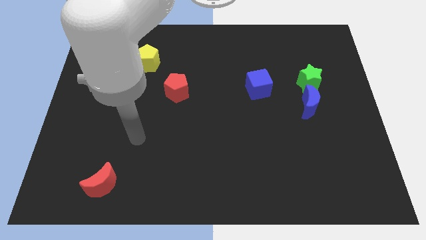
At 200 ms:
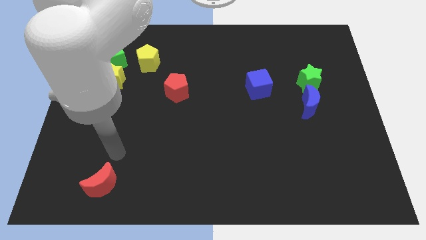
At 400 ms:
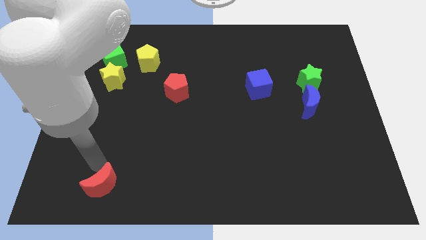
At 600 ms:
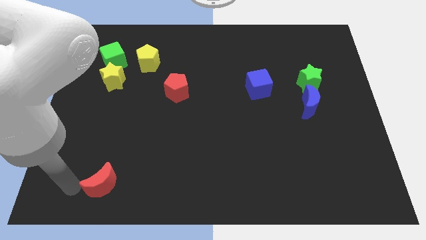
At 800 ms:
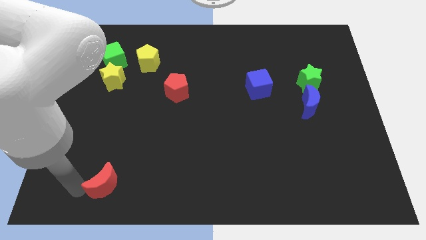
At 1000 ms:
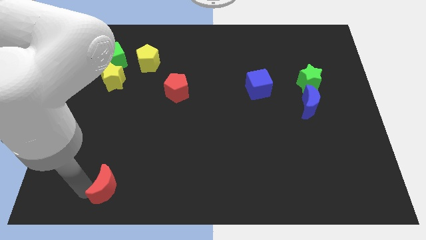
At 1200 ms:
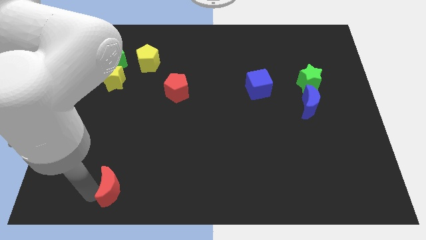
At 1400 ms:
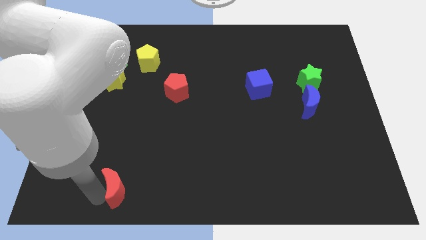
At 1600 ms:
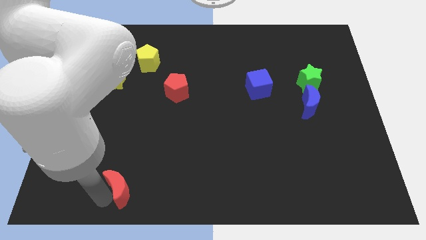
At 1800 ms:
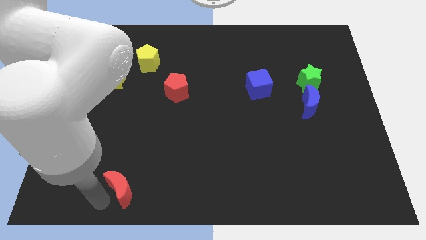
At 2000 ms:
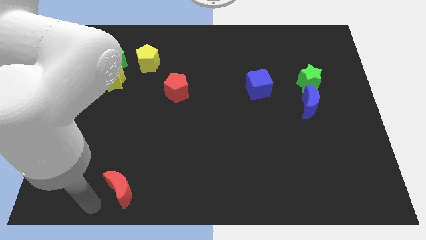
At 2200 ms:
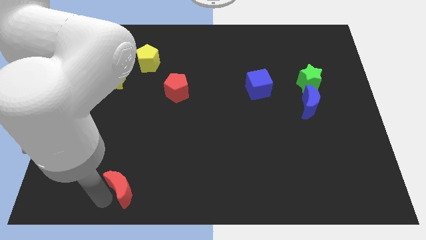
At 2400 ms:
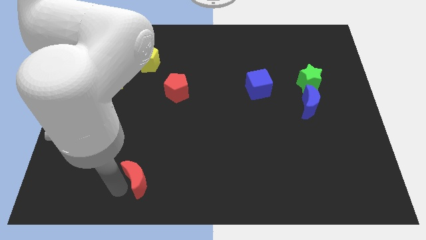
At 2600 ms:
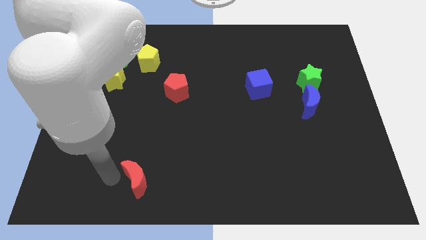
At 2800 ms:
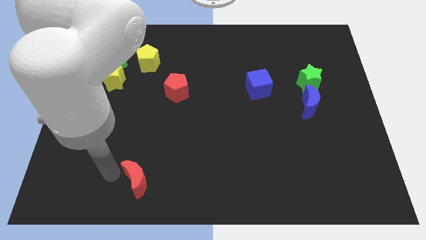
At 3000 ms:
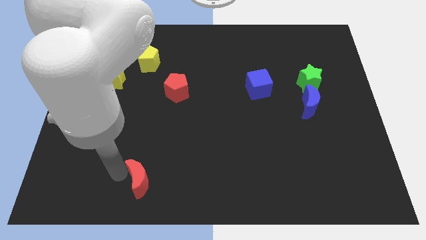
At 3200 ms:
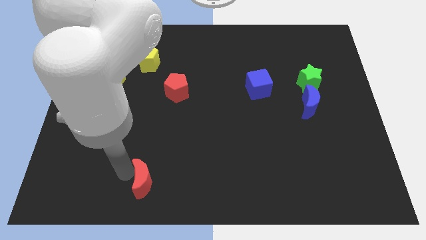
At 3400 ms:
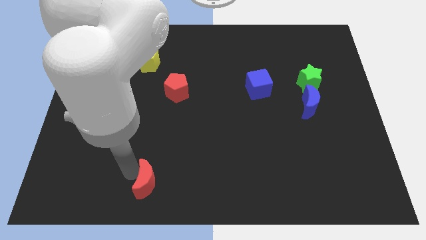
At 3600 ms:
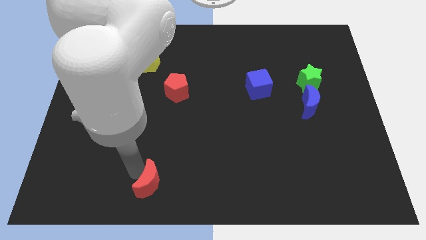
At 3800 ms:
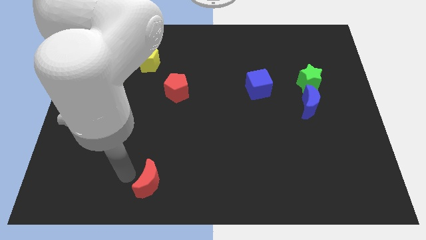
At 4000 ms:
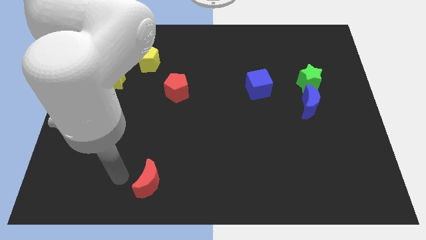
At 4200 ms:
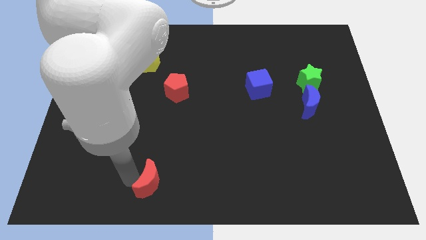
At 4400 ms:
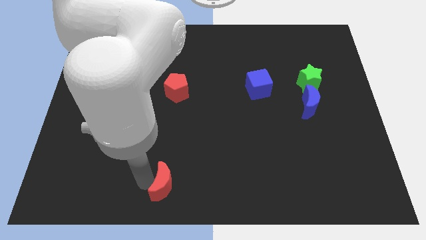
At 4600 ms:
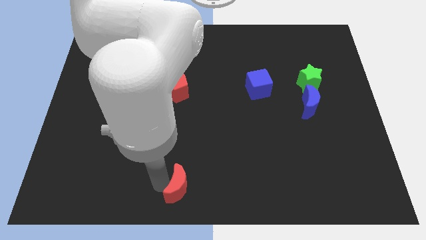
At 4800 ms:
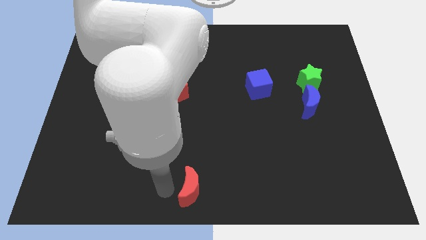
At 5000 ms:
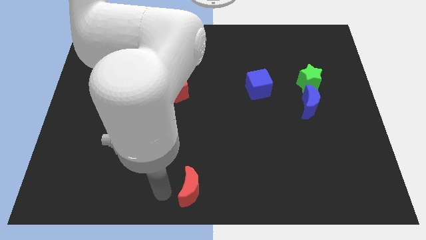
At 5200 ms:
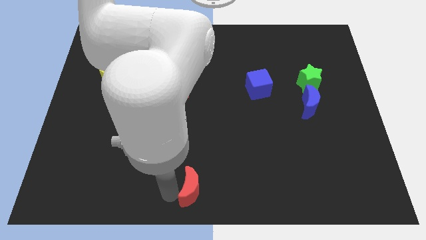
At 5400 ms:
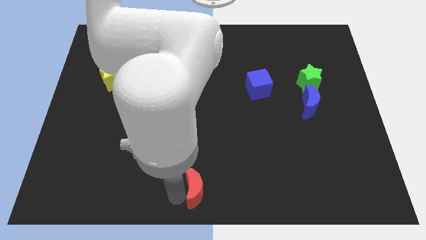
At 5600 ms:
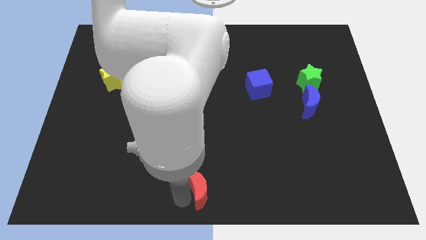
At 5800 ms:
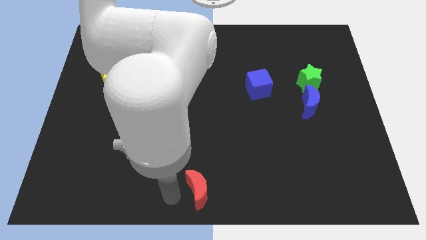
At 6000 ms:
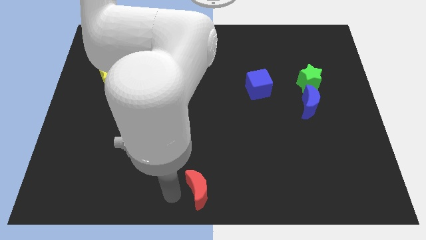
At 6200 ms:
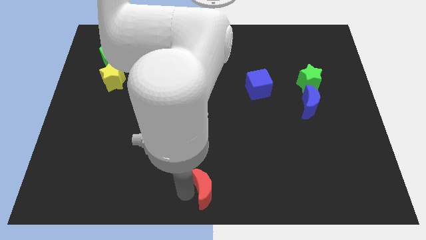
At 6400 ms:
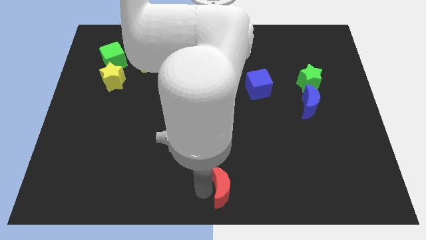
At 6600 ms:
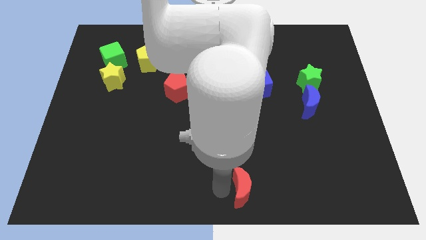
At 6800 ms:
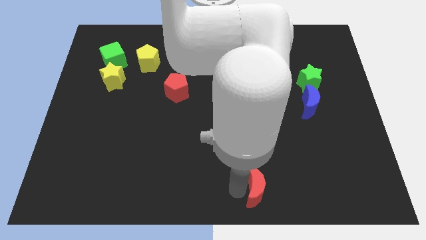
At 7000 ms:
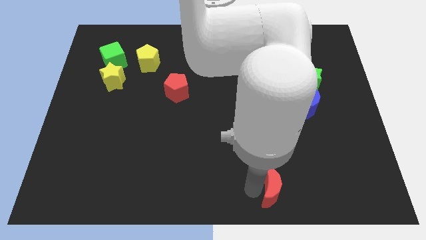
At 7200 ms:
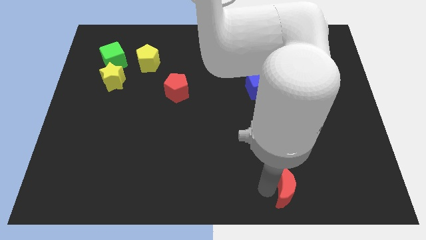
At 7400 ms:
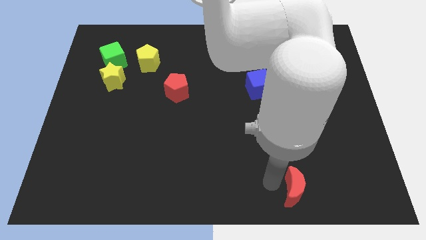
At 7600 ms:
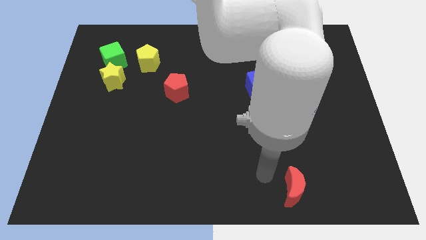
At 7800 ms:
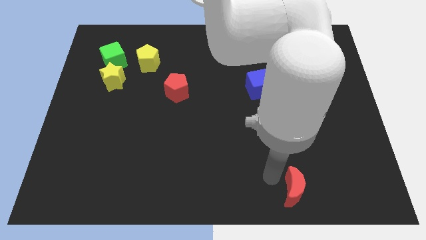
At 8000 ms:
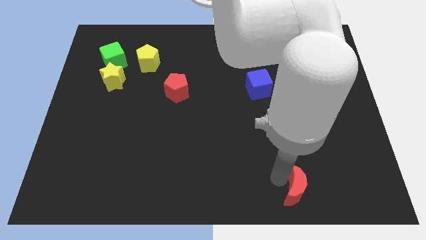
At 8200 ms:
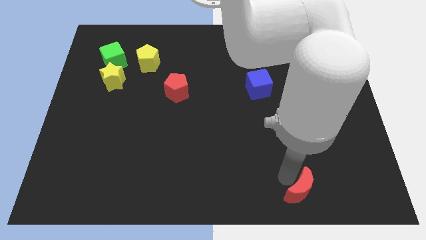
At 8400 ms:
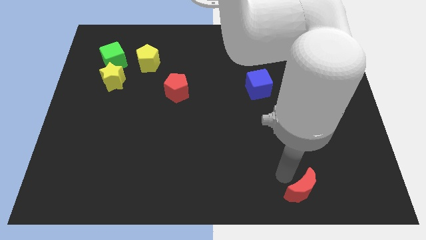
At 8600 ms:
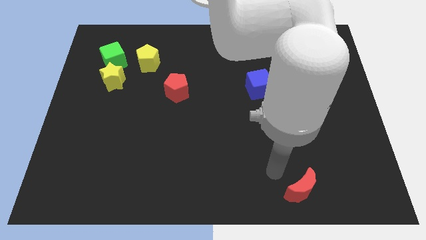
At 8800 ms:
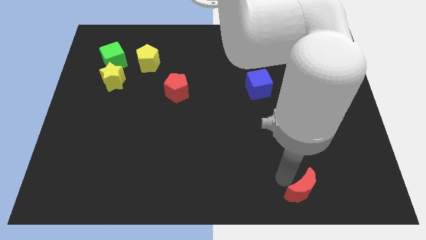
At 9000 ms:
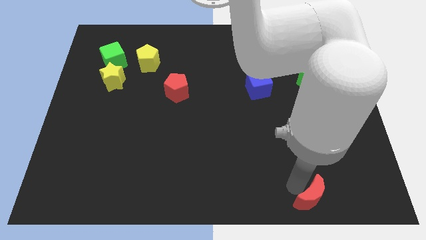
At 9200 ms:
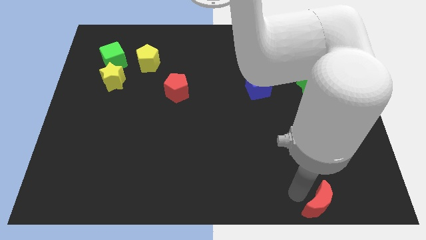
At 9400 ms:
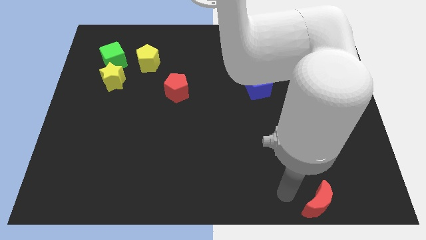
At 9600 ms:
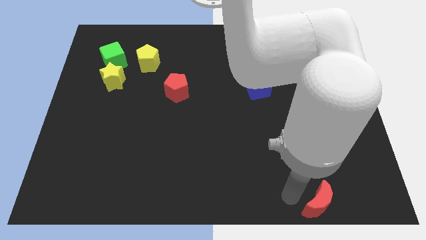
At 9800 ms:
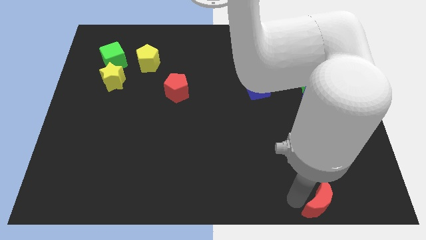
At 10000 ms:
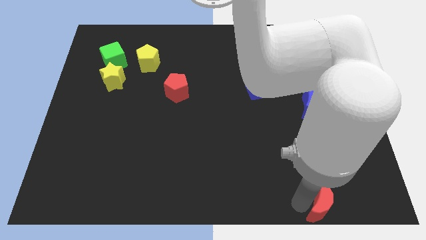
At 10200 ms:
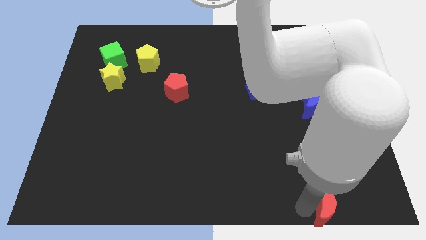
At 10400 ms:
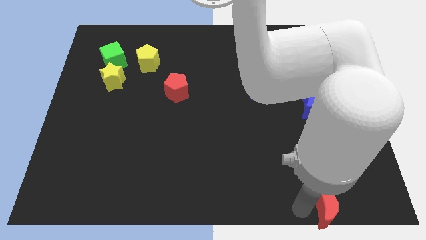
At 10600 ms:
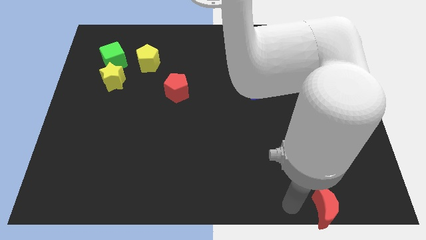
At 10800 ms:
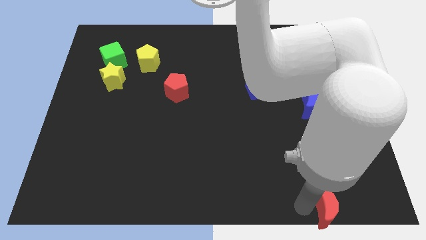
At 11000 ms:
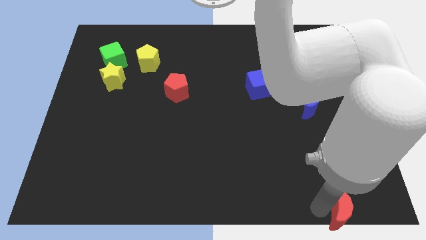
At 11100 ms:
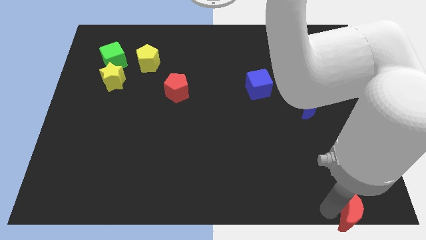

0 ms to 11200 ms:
slide the red moon to the lower right corner
